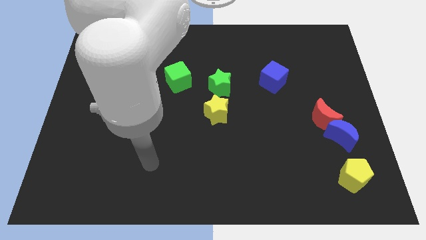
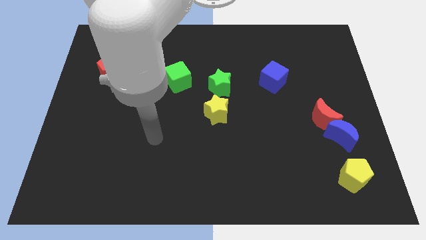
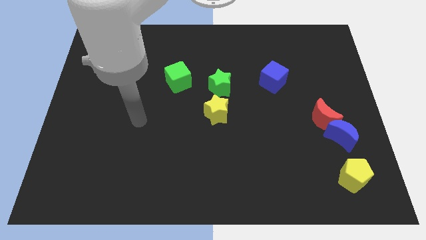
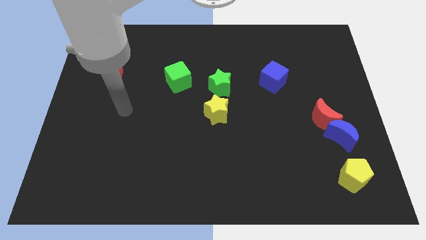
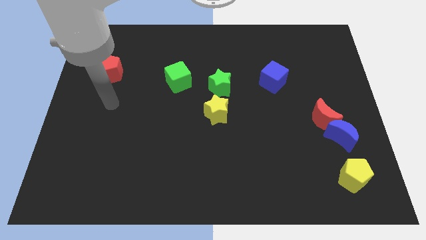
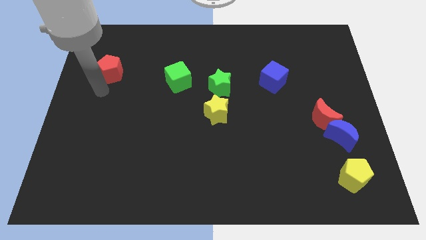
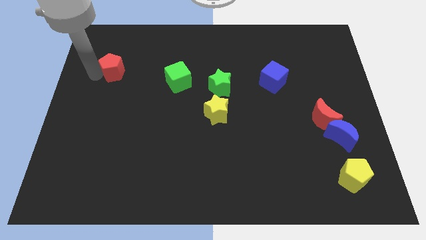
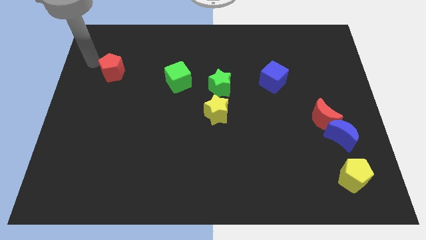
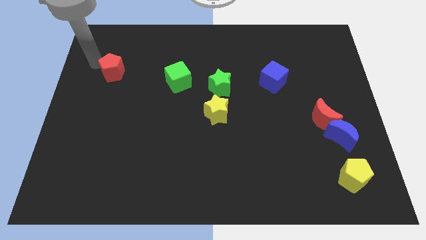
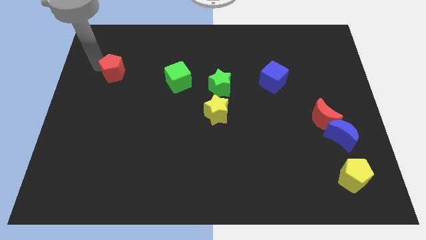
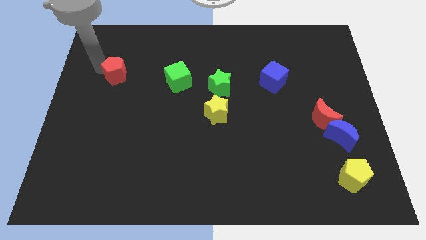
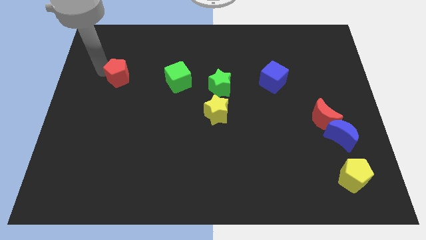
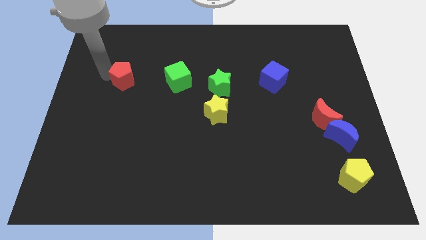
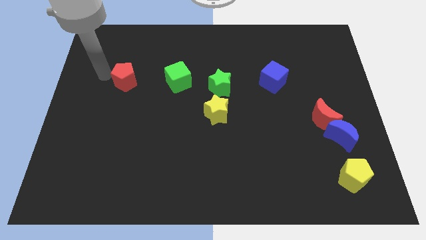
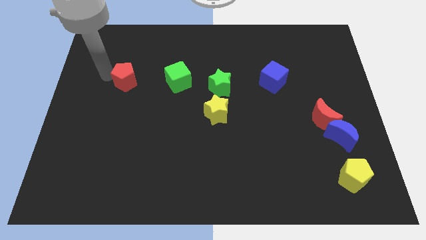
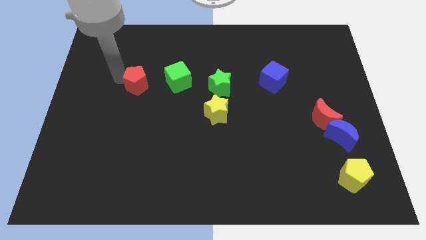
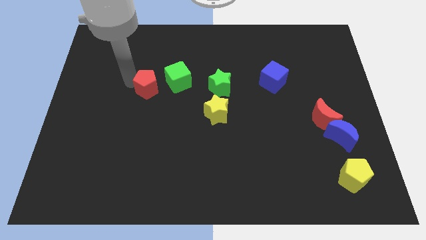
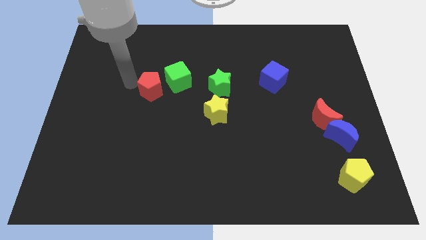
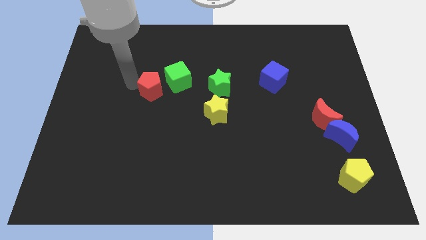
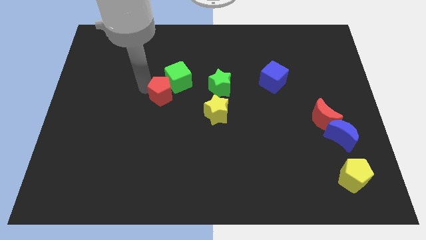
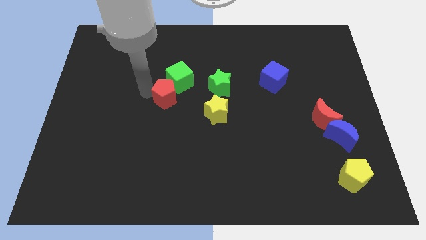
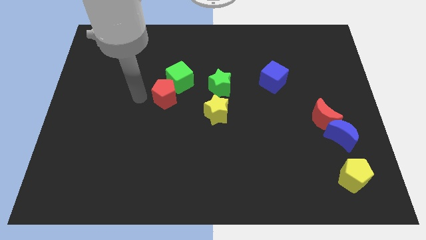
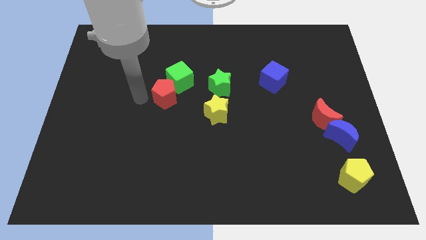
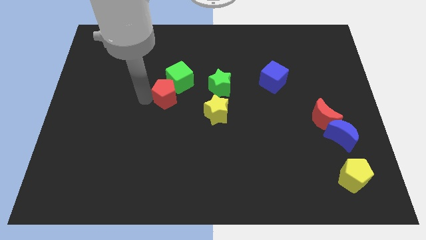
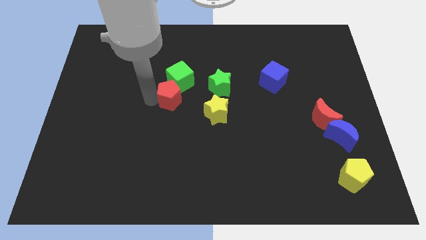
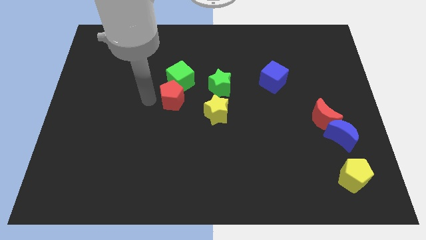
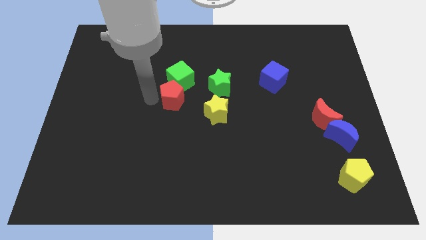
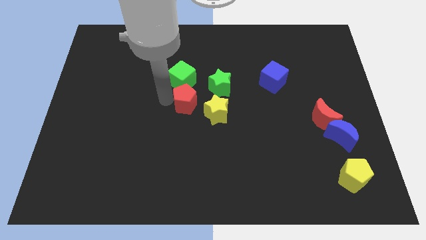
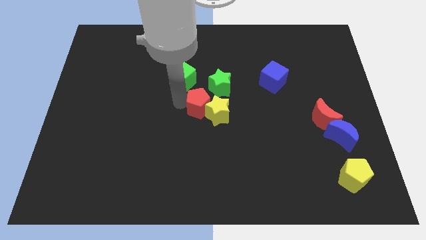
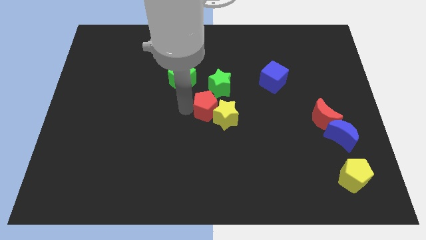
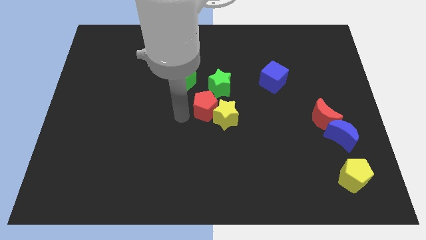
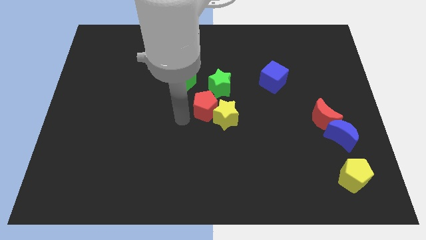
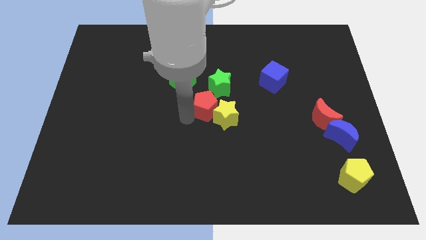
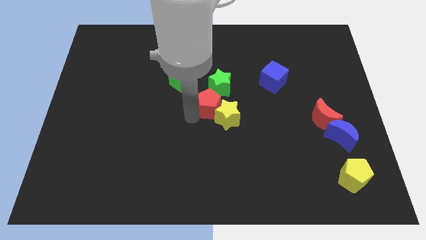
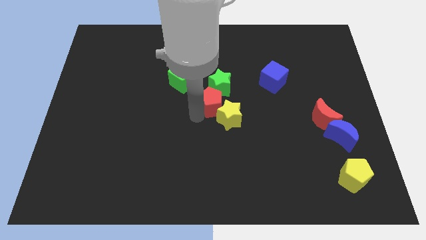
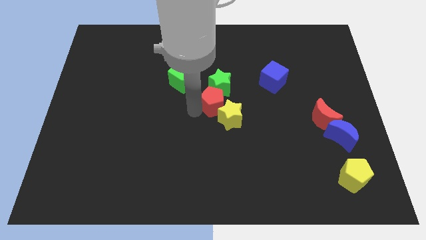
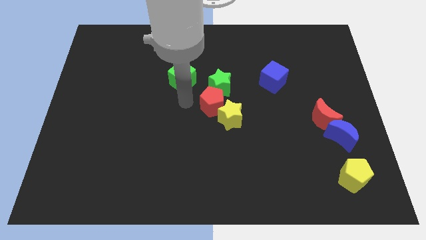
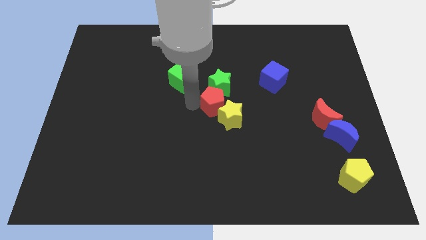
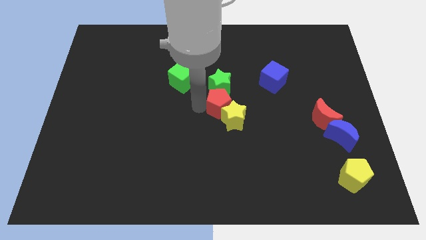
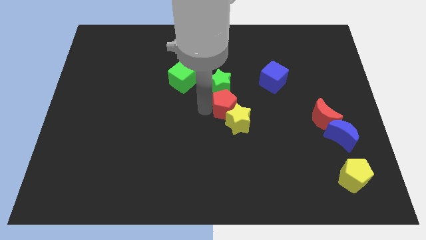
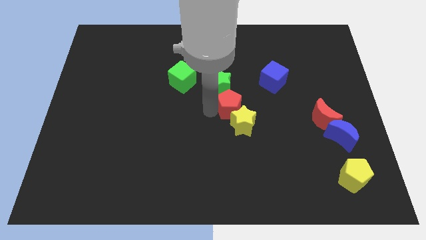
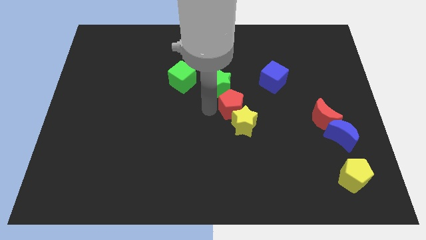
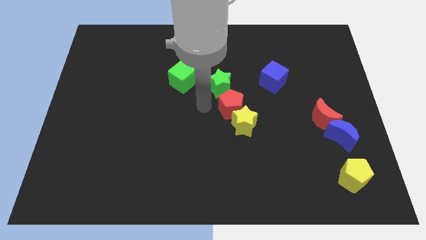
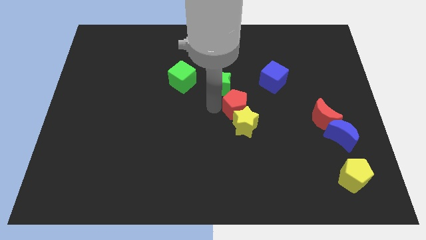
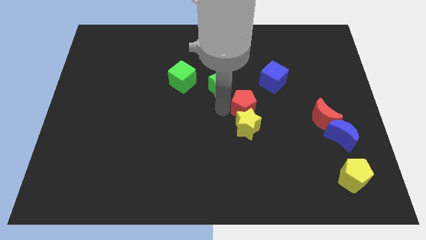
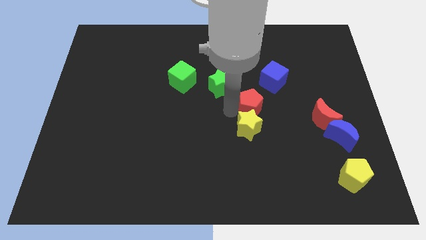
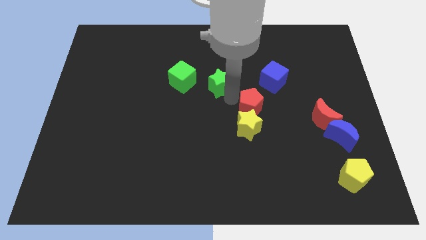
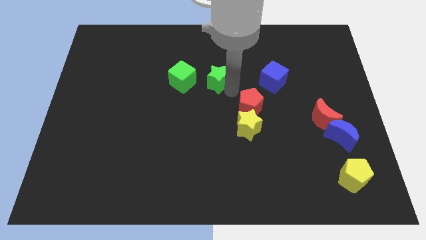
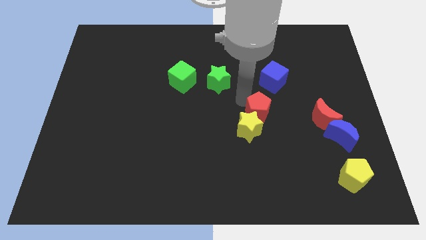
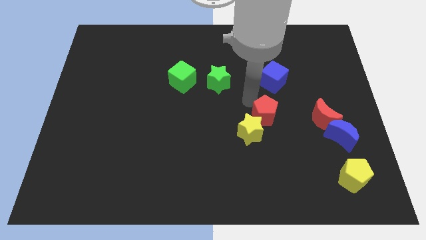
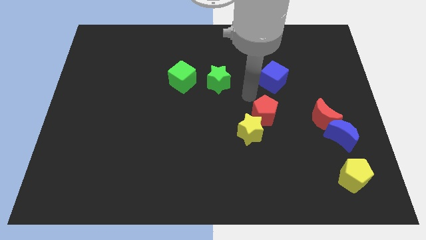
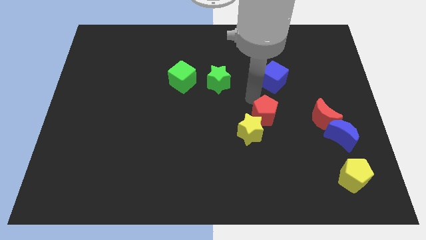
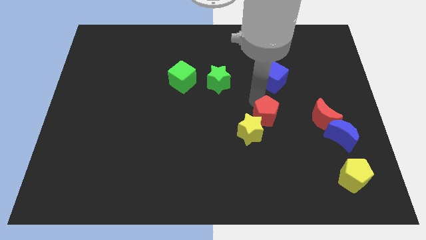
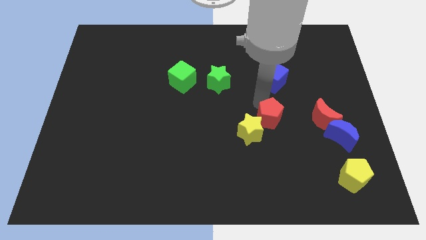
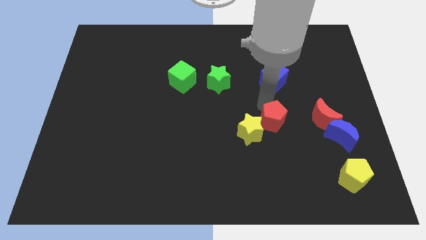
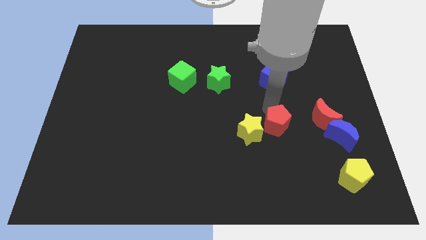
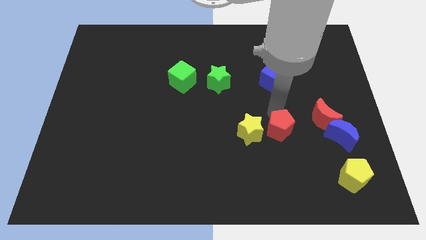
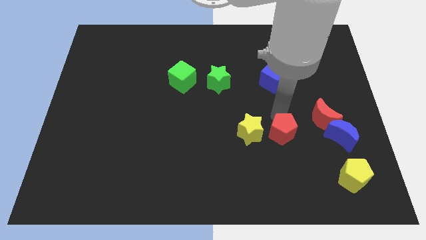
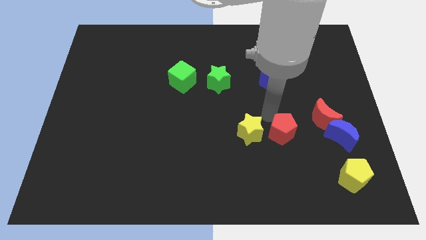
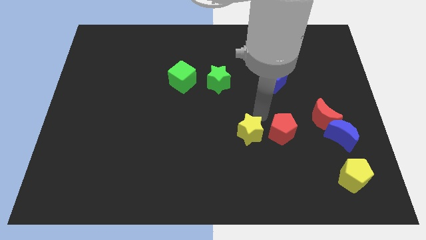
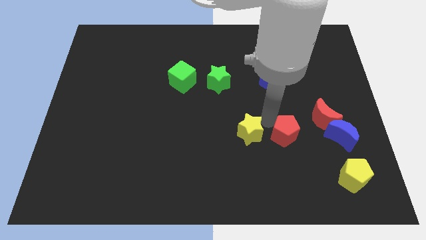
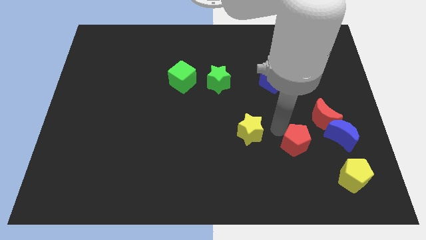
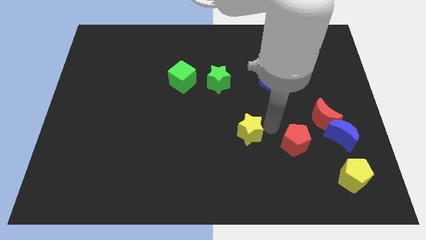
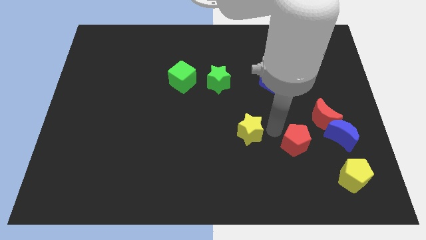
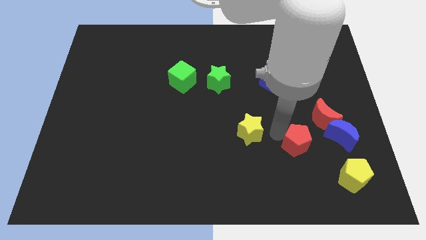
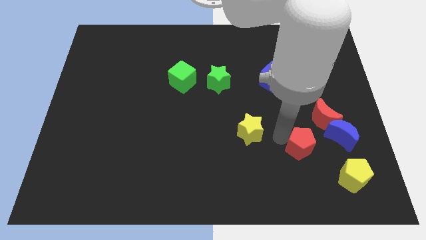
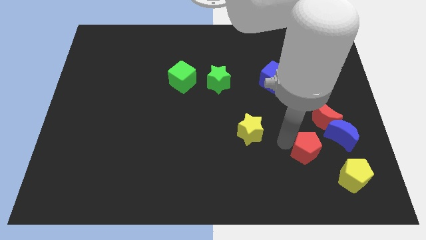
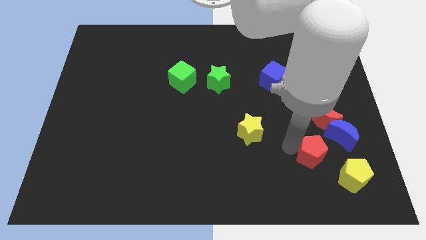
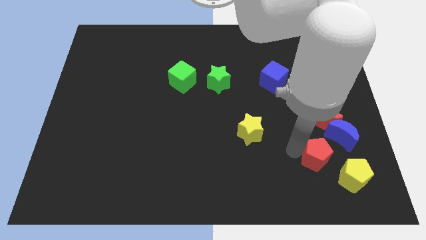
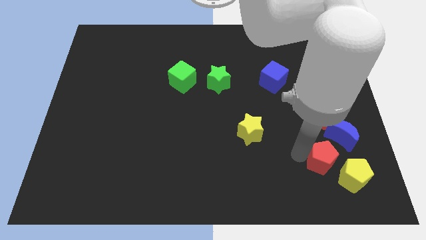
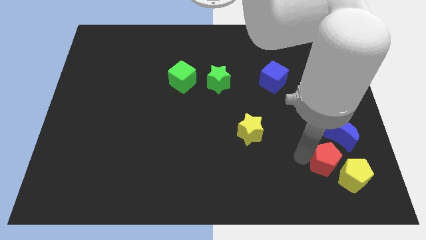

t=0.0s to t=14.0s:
put the red pentagon towards the yellow pentagon
